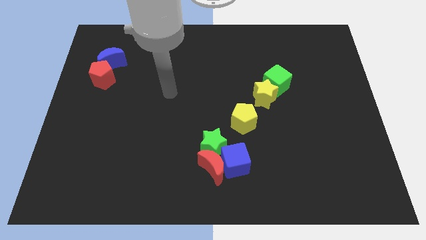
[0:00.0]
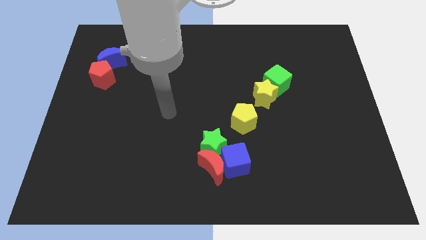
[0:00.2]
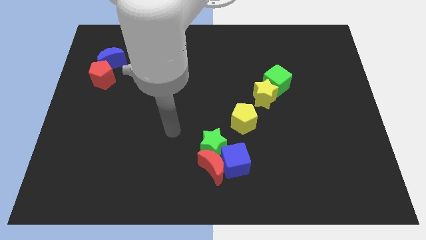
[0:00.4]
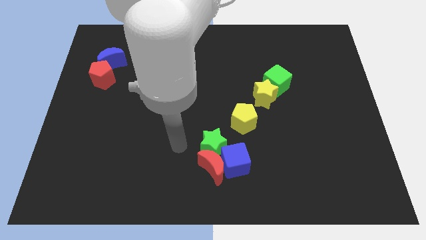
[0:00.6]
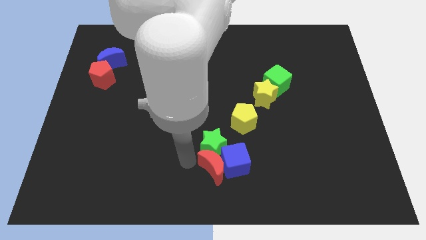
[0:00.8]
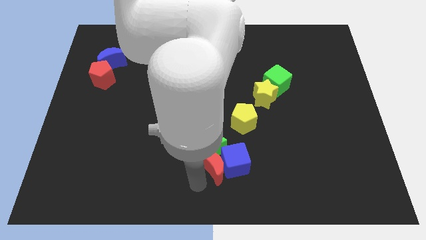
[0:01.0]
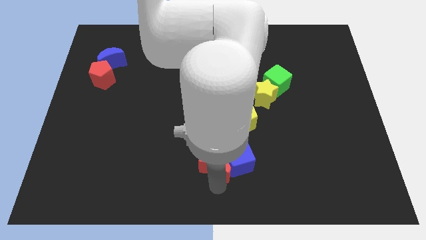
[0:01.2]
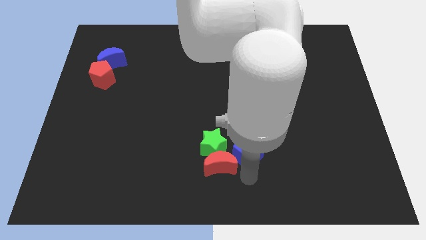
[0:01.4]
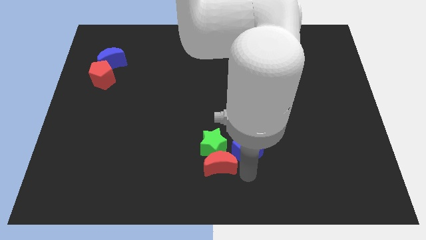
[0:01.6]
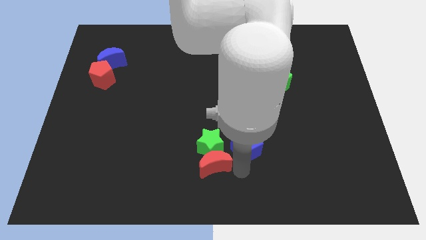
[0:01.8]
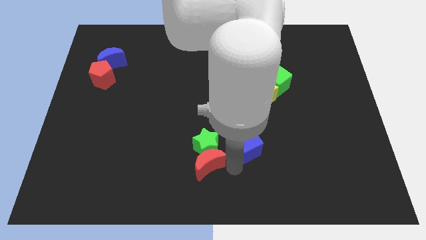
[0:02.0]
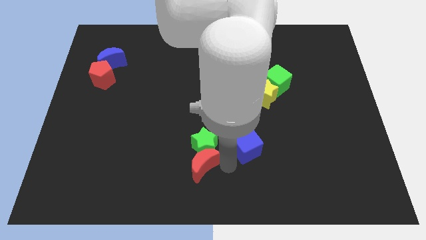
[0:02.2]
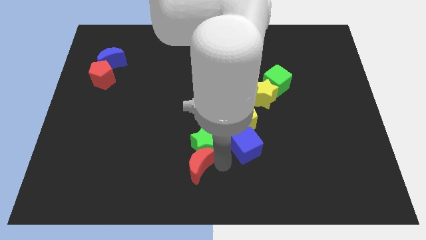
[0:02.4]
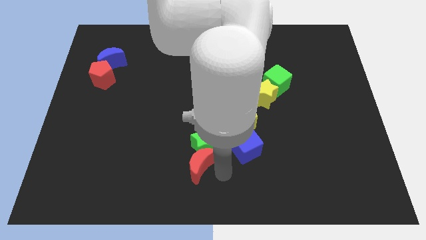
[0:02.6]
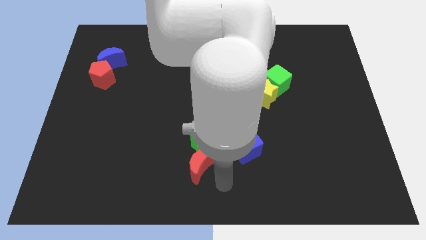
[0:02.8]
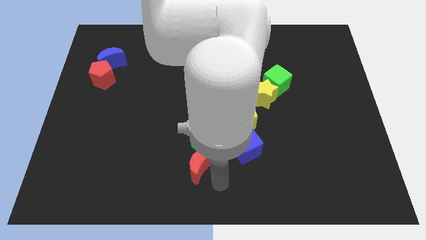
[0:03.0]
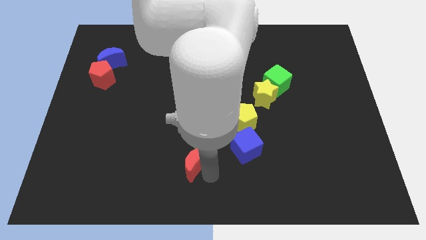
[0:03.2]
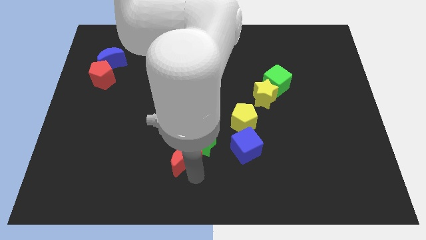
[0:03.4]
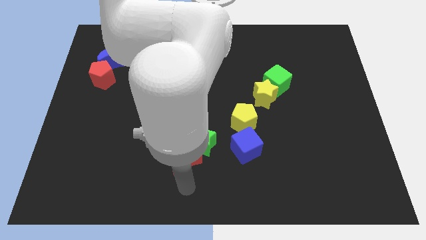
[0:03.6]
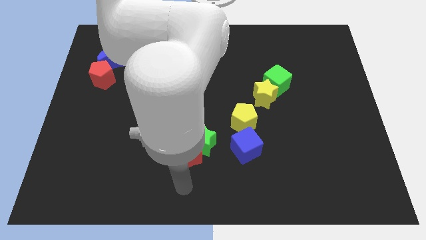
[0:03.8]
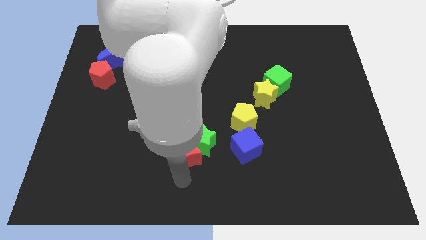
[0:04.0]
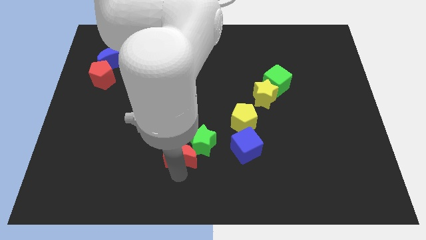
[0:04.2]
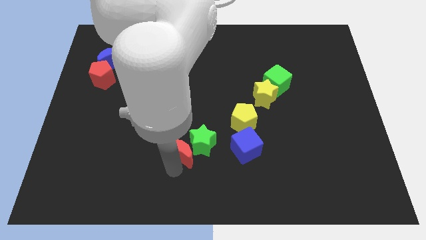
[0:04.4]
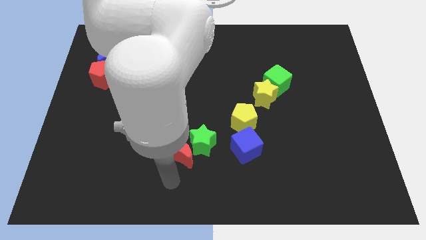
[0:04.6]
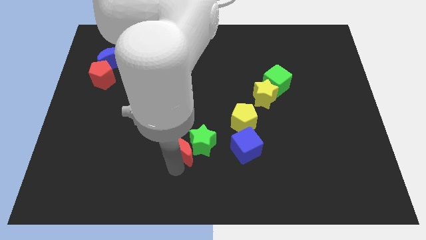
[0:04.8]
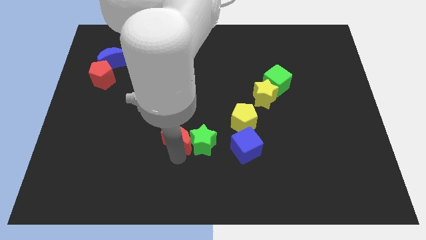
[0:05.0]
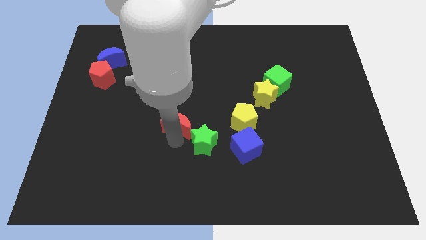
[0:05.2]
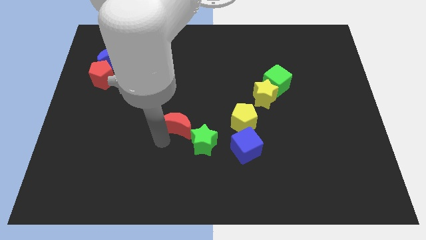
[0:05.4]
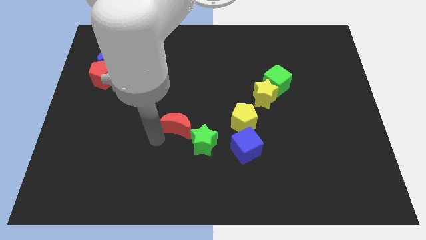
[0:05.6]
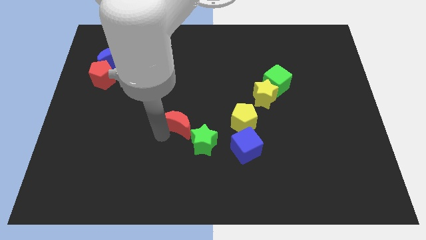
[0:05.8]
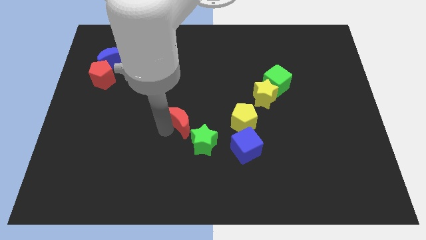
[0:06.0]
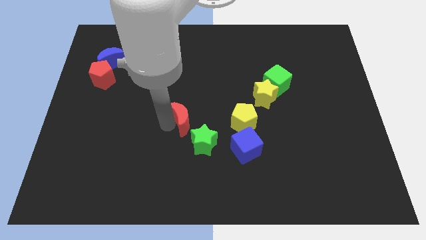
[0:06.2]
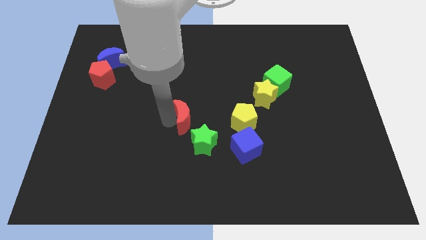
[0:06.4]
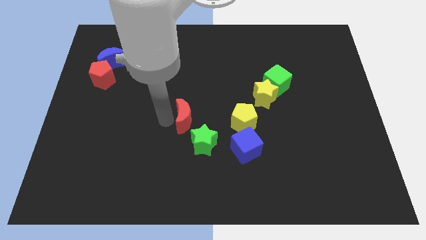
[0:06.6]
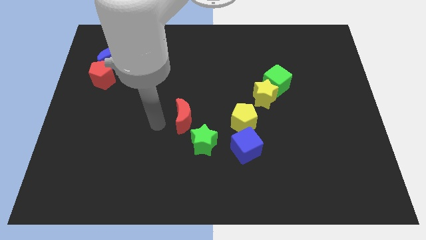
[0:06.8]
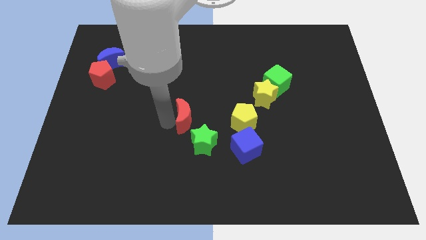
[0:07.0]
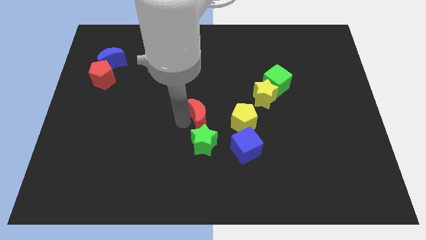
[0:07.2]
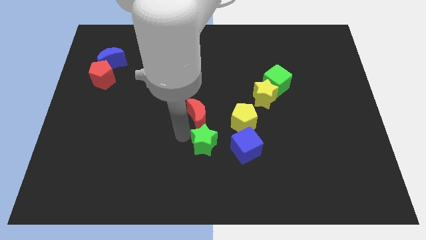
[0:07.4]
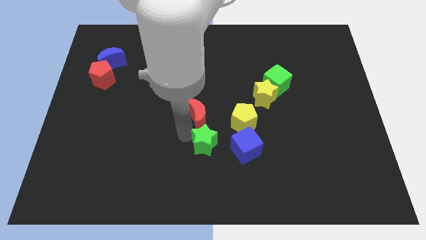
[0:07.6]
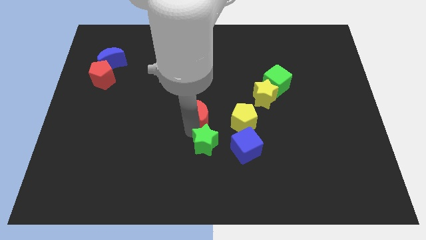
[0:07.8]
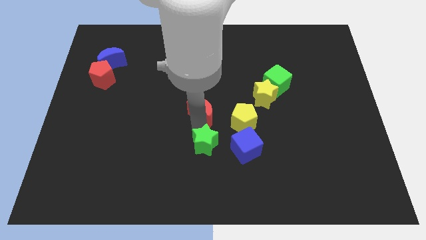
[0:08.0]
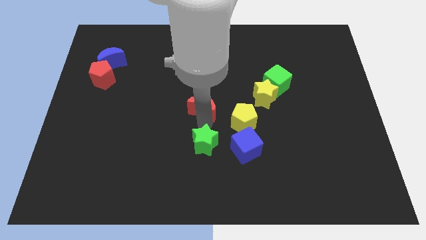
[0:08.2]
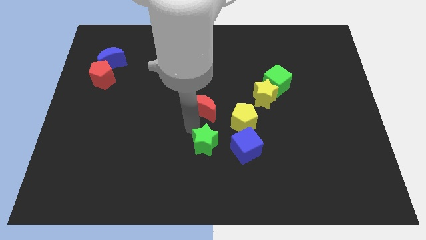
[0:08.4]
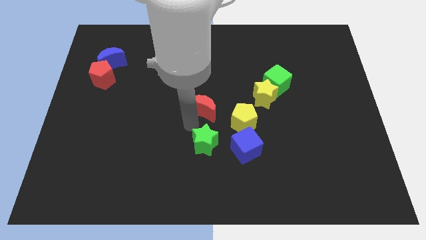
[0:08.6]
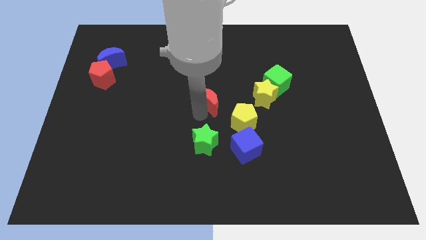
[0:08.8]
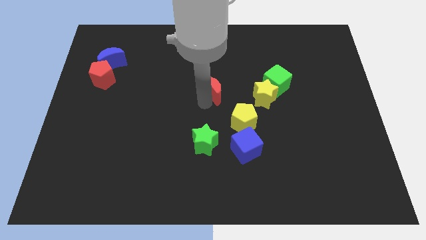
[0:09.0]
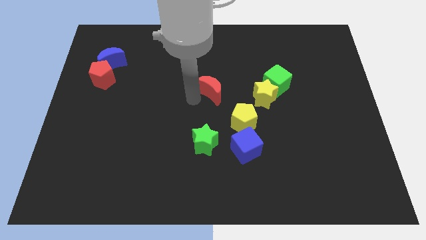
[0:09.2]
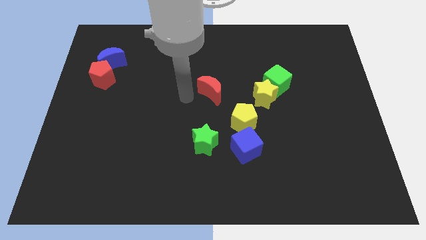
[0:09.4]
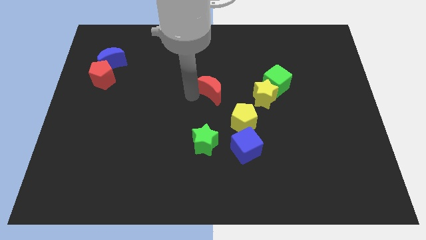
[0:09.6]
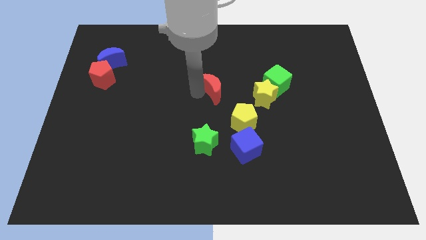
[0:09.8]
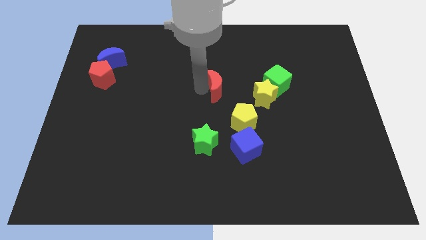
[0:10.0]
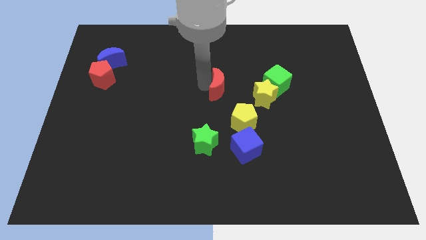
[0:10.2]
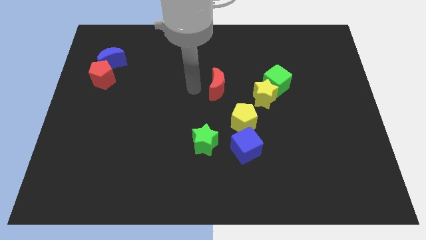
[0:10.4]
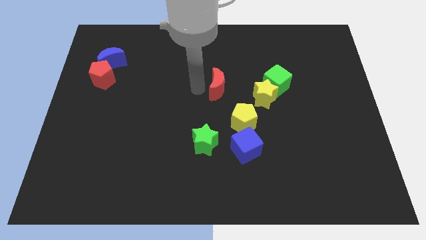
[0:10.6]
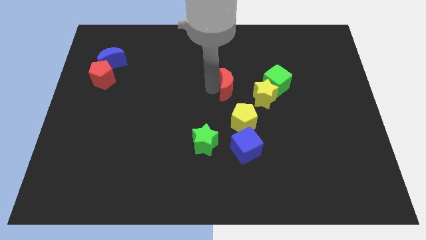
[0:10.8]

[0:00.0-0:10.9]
push the red moon above the yellow pentagon

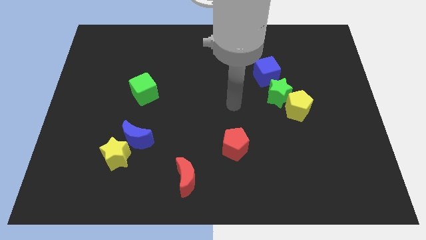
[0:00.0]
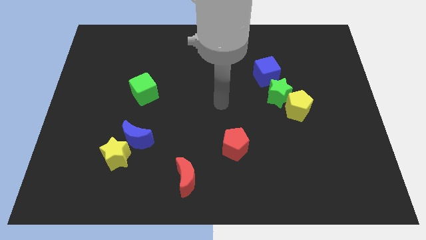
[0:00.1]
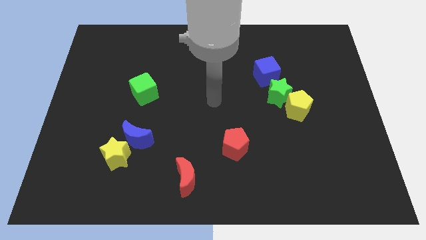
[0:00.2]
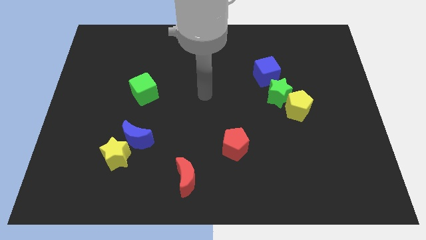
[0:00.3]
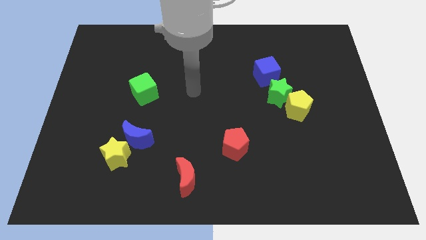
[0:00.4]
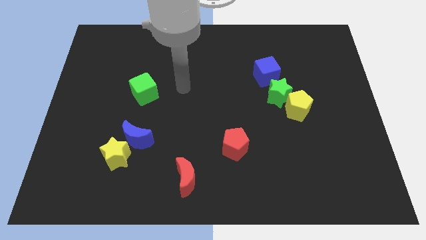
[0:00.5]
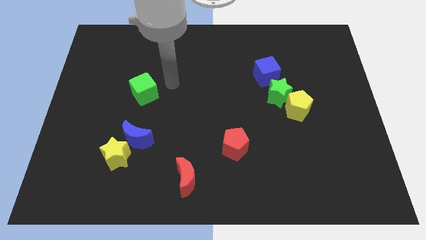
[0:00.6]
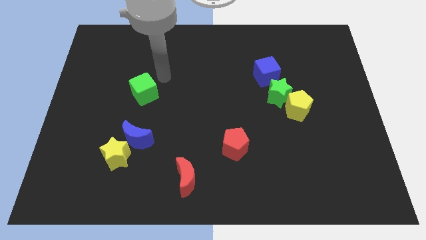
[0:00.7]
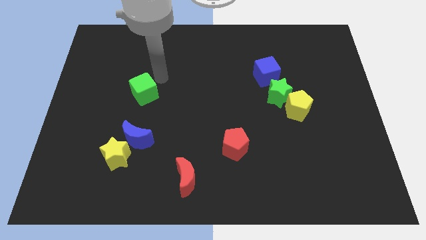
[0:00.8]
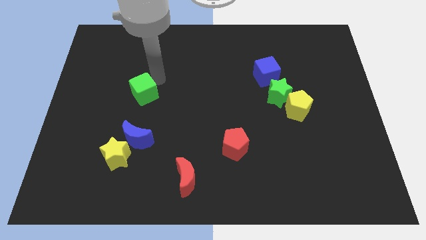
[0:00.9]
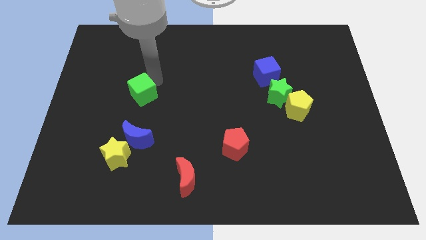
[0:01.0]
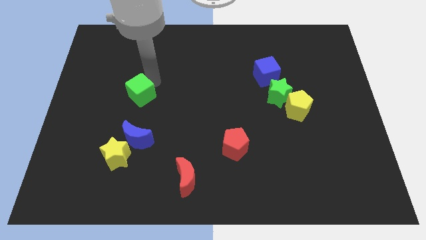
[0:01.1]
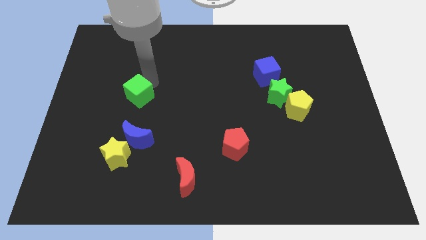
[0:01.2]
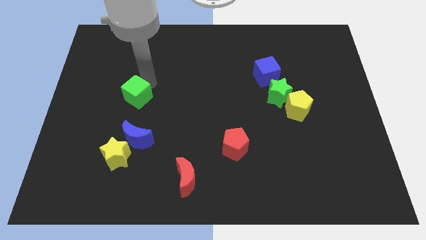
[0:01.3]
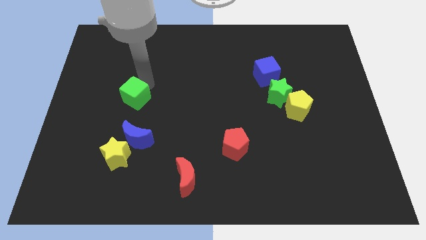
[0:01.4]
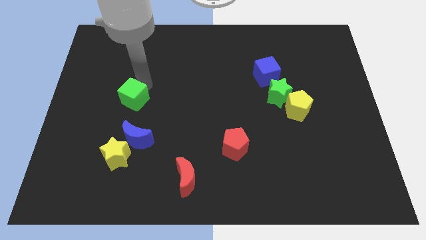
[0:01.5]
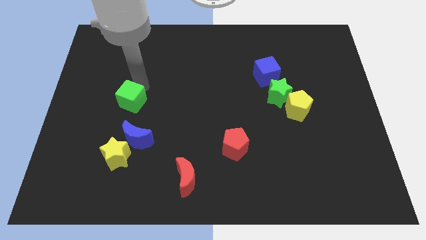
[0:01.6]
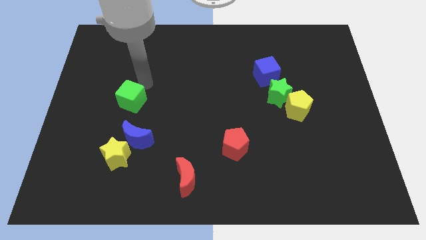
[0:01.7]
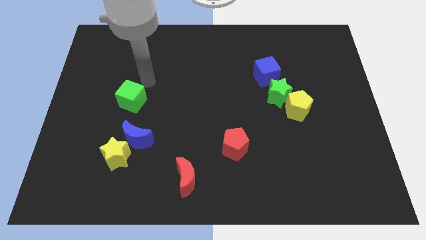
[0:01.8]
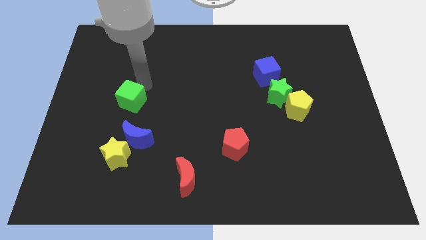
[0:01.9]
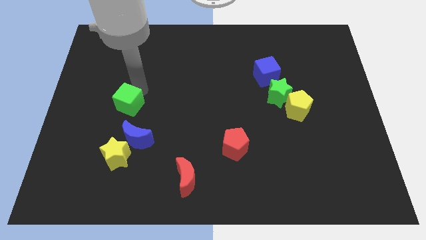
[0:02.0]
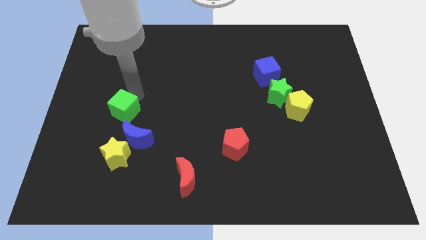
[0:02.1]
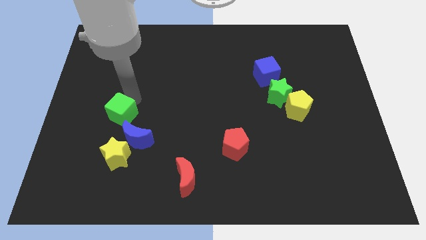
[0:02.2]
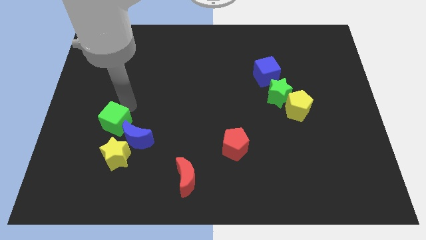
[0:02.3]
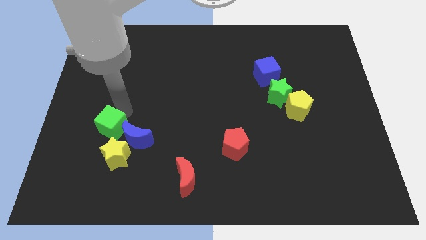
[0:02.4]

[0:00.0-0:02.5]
slide the green cube to the top left of the yellow star
